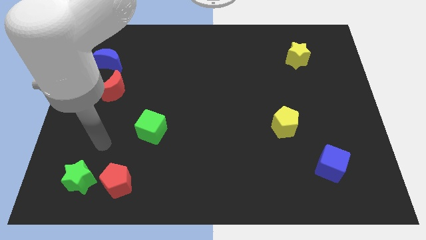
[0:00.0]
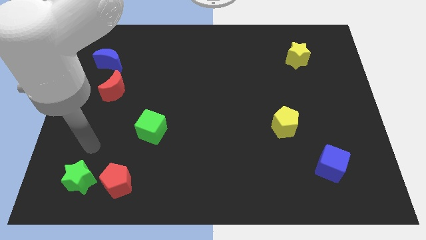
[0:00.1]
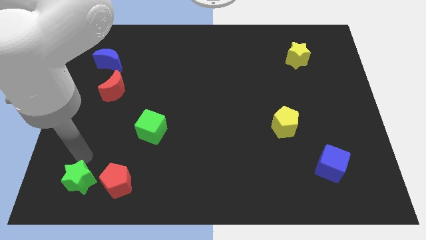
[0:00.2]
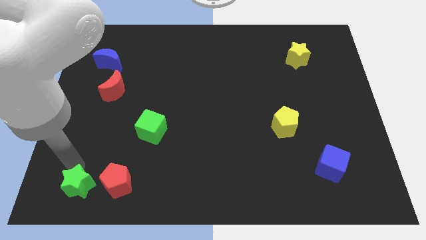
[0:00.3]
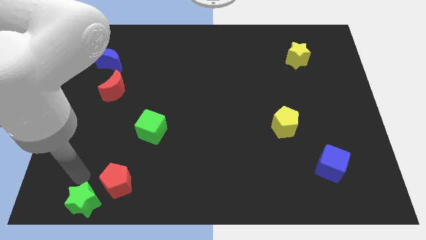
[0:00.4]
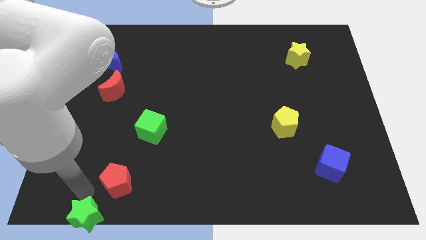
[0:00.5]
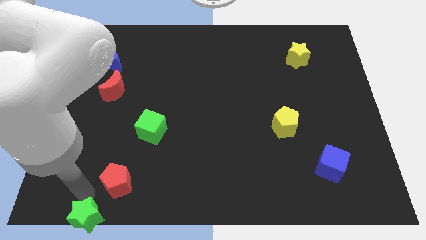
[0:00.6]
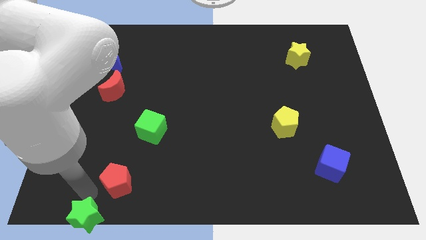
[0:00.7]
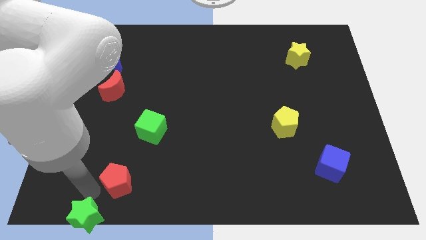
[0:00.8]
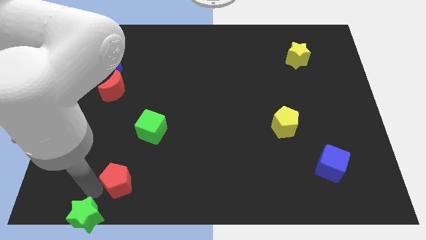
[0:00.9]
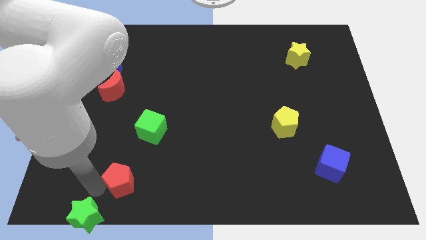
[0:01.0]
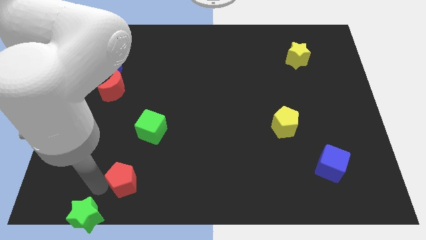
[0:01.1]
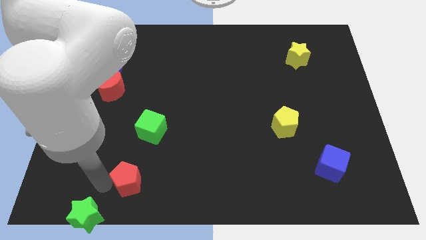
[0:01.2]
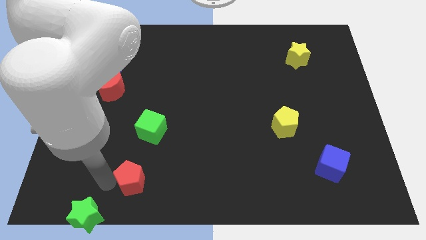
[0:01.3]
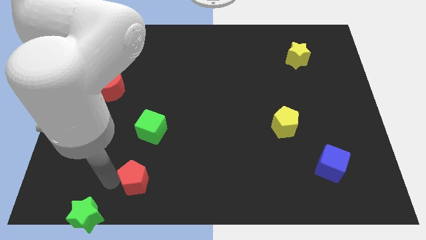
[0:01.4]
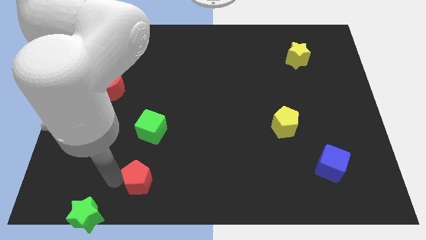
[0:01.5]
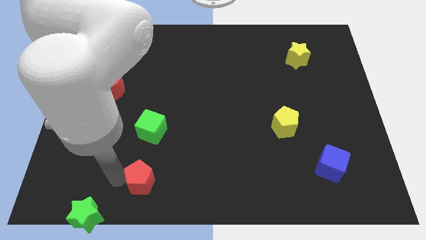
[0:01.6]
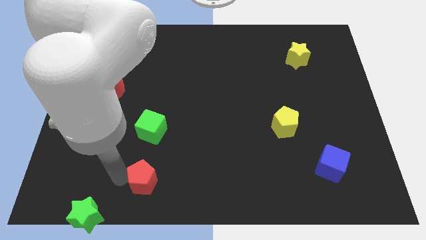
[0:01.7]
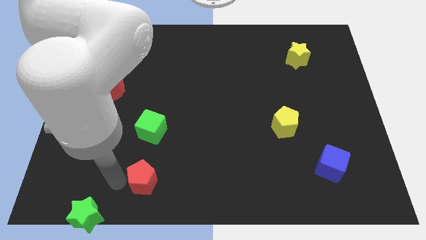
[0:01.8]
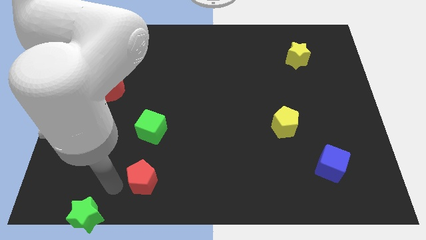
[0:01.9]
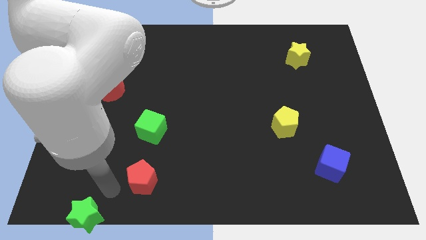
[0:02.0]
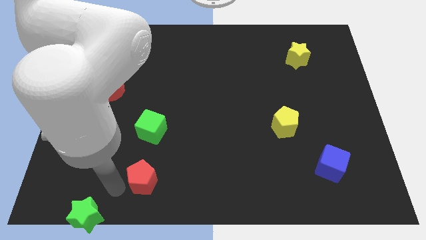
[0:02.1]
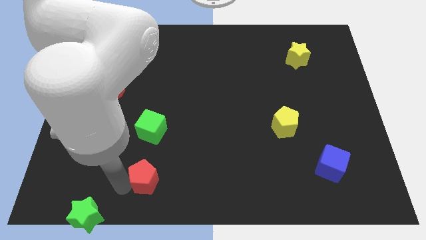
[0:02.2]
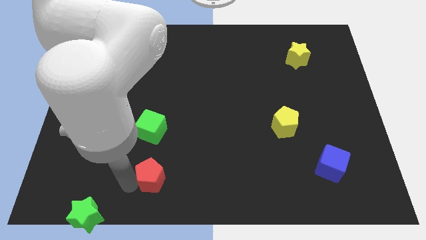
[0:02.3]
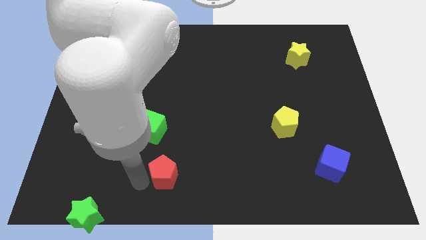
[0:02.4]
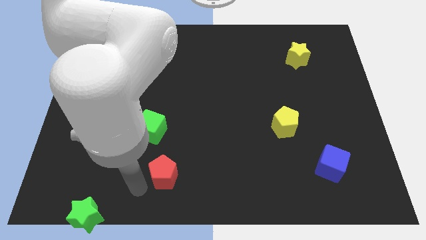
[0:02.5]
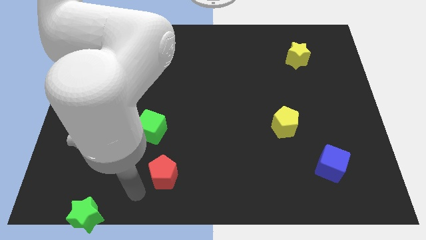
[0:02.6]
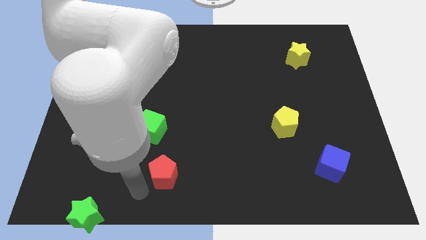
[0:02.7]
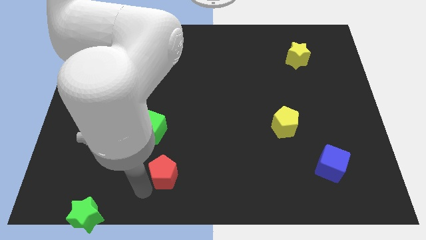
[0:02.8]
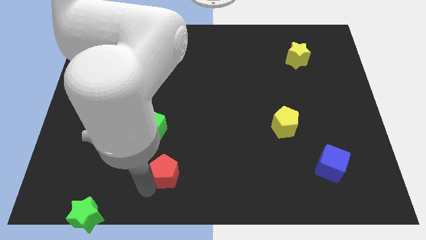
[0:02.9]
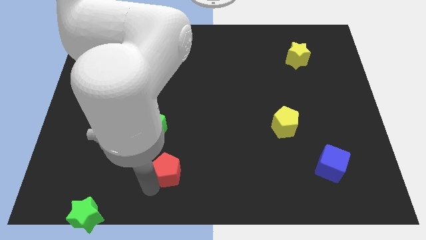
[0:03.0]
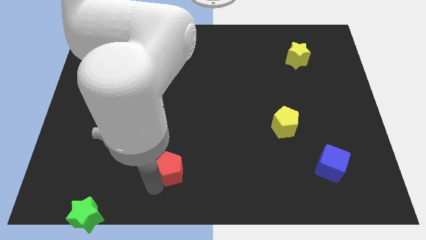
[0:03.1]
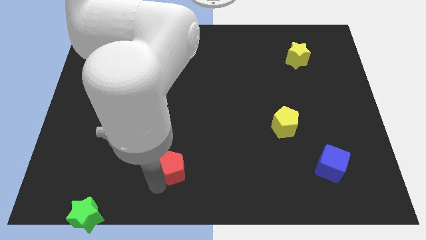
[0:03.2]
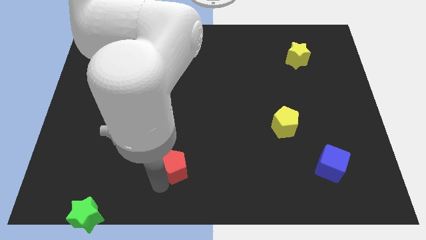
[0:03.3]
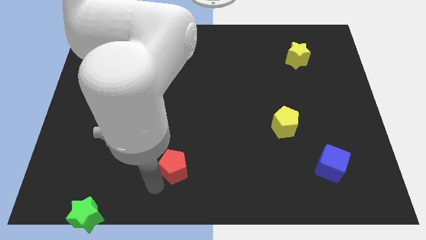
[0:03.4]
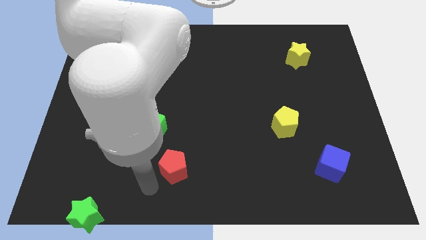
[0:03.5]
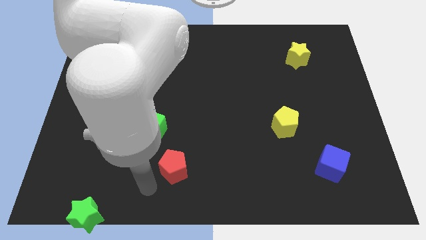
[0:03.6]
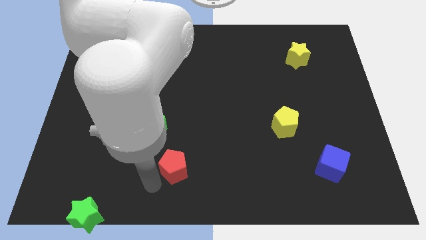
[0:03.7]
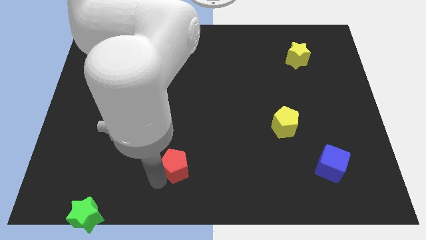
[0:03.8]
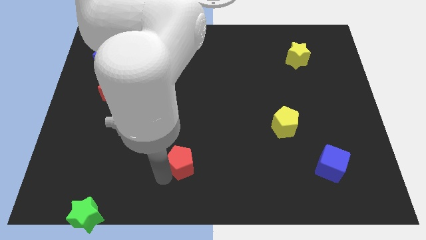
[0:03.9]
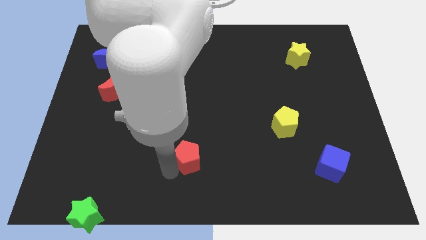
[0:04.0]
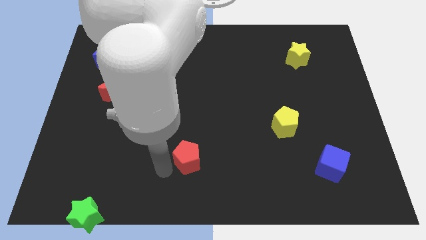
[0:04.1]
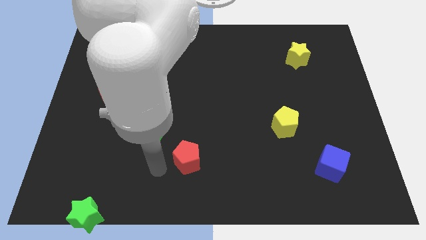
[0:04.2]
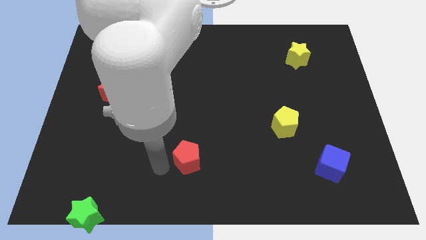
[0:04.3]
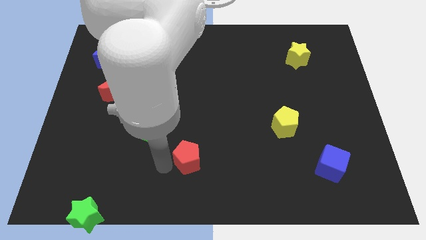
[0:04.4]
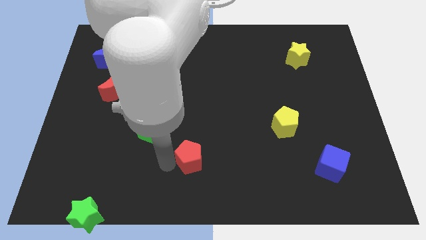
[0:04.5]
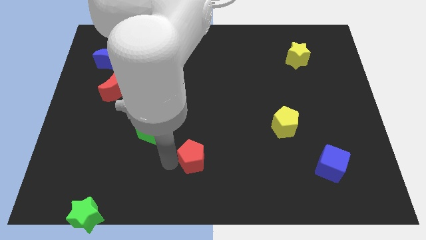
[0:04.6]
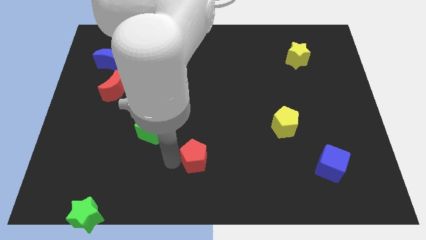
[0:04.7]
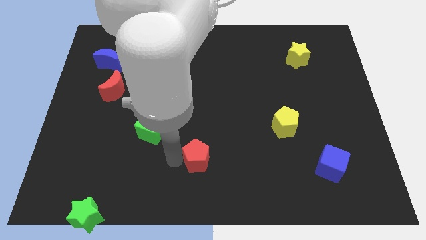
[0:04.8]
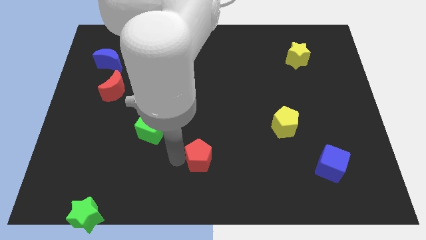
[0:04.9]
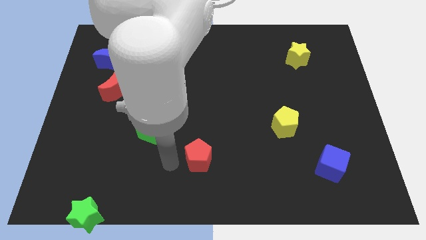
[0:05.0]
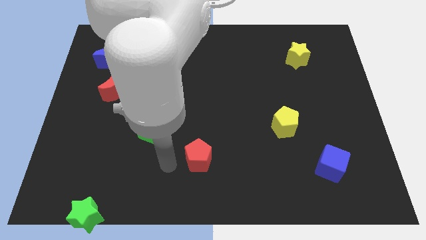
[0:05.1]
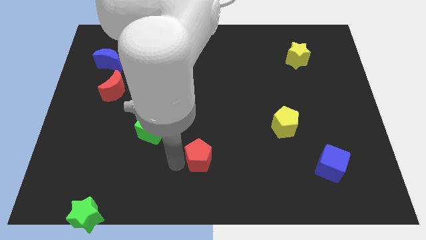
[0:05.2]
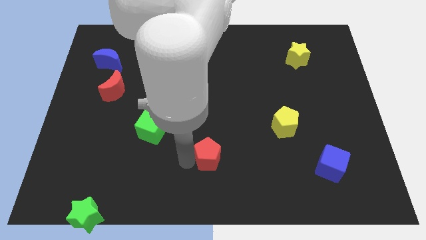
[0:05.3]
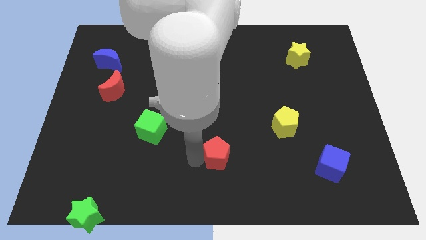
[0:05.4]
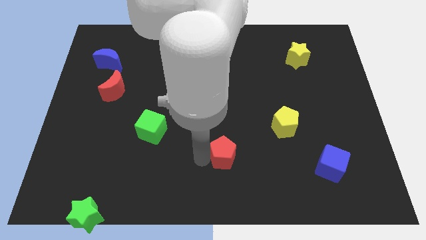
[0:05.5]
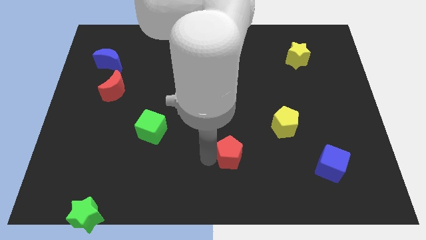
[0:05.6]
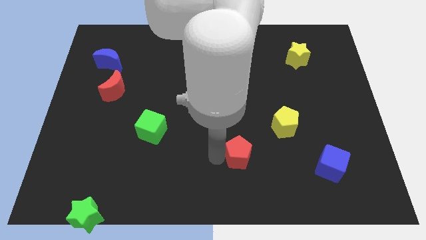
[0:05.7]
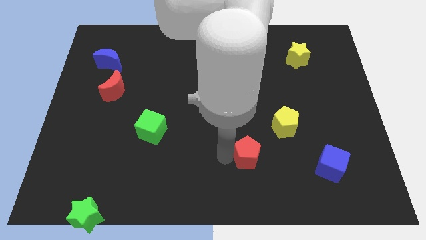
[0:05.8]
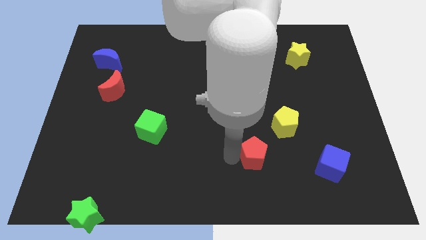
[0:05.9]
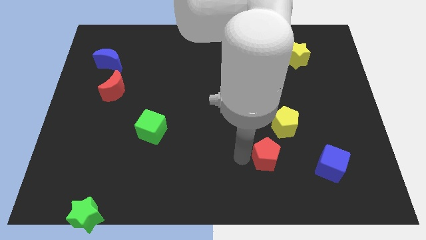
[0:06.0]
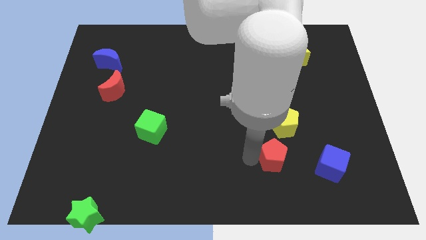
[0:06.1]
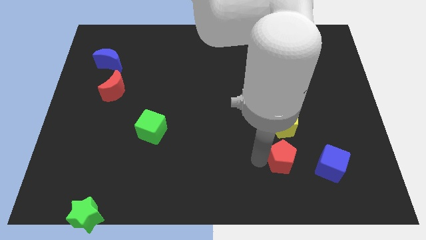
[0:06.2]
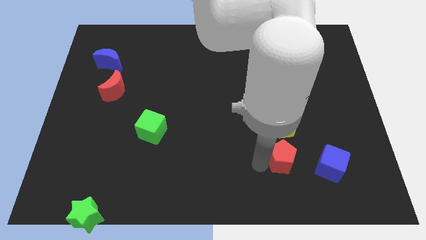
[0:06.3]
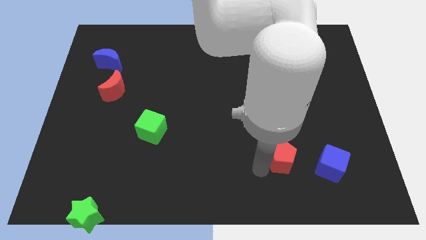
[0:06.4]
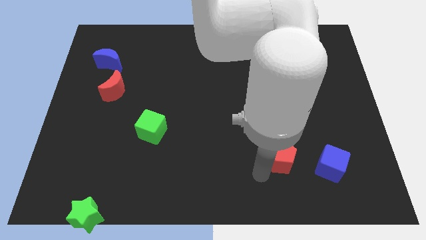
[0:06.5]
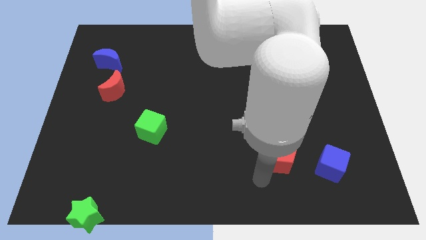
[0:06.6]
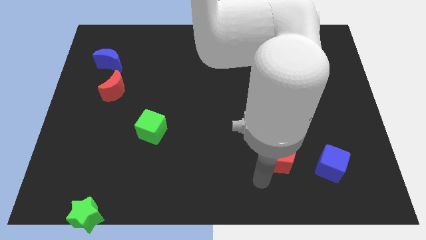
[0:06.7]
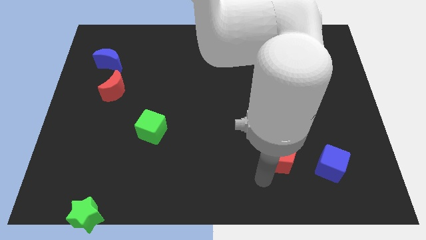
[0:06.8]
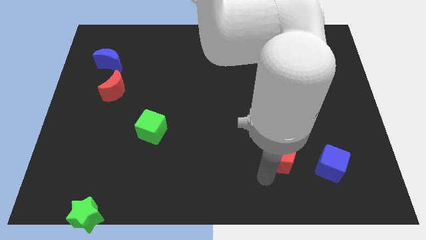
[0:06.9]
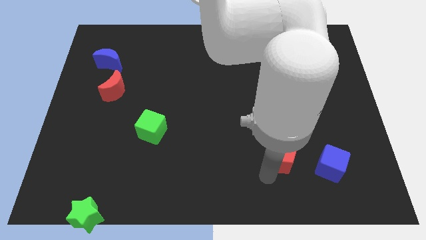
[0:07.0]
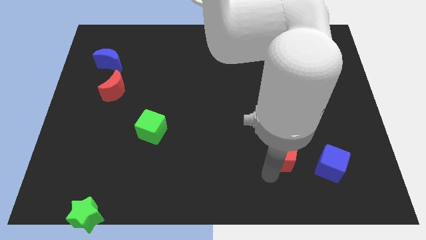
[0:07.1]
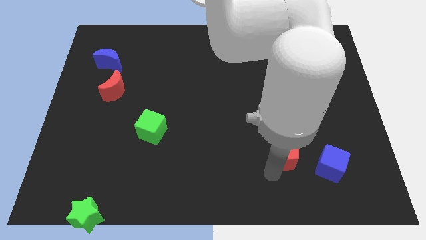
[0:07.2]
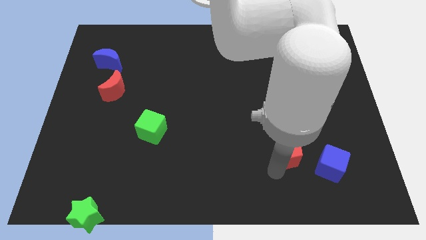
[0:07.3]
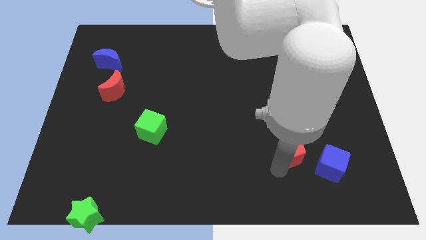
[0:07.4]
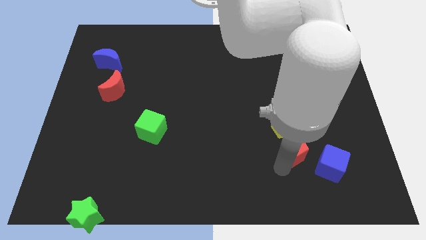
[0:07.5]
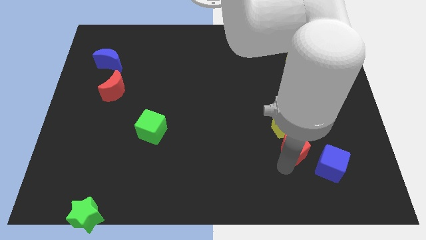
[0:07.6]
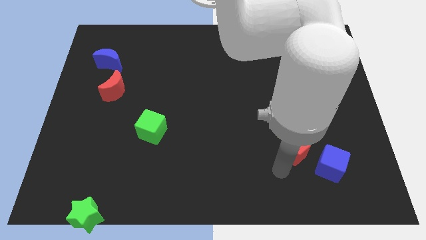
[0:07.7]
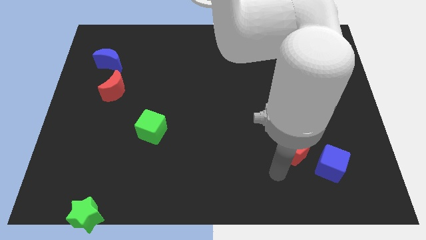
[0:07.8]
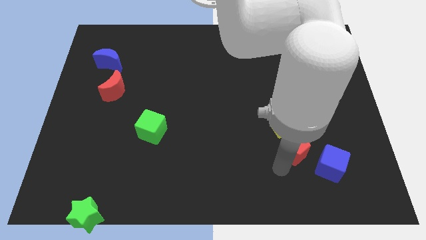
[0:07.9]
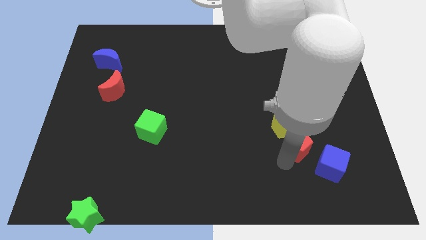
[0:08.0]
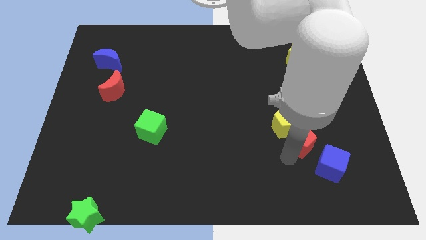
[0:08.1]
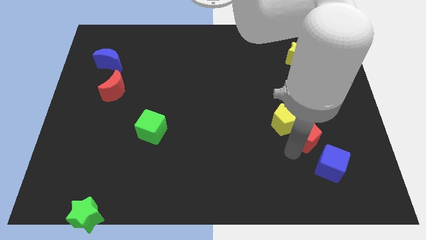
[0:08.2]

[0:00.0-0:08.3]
put the red pentagon just right of the yellow pentagon
